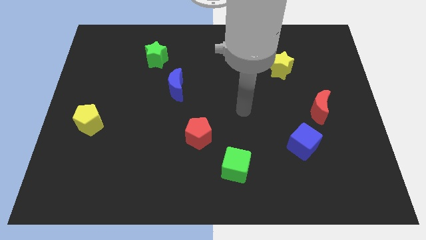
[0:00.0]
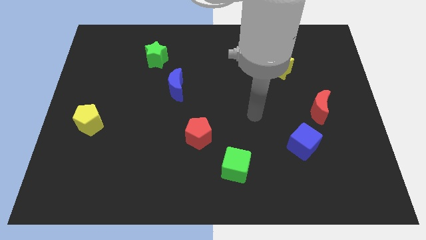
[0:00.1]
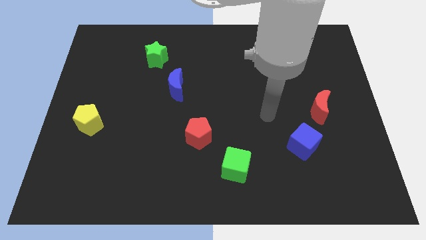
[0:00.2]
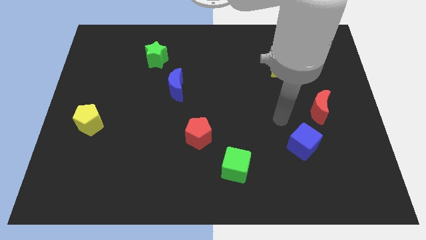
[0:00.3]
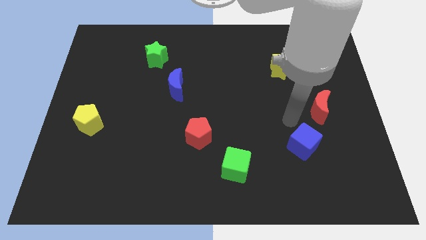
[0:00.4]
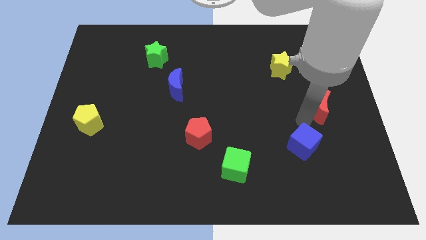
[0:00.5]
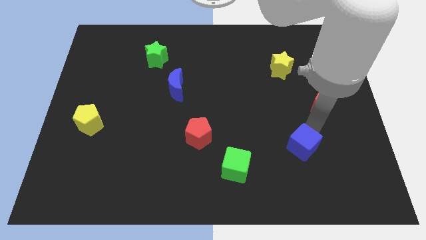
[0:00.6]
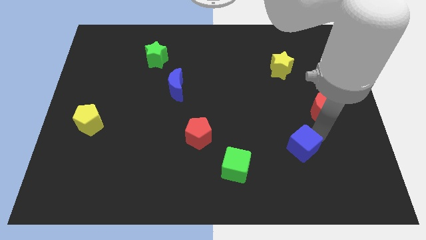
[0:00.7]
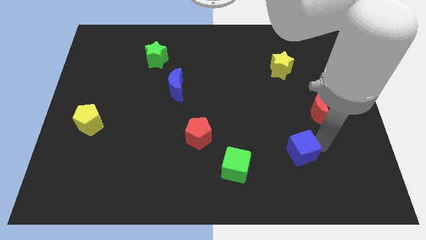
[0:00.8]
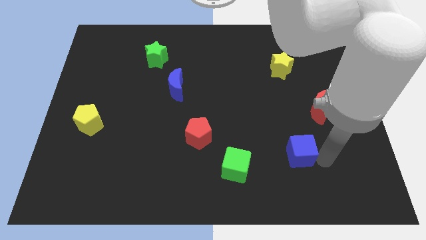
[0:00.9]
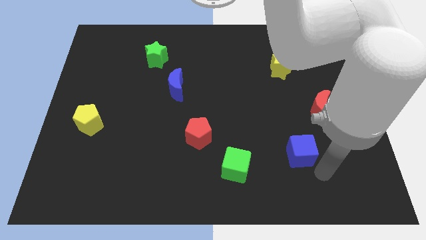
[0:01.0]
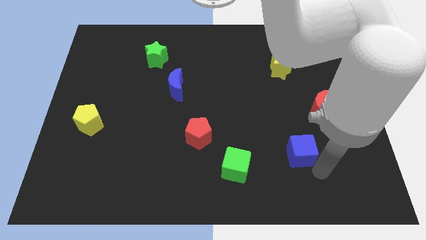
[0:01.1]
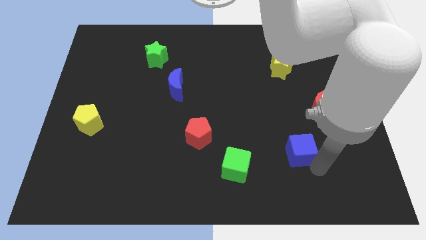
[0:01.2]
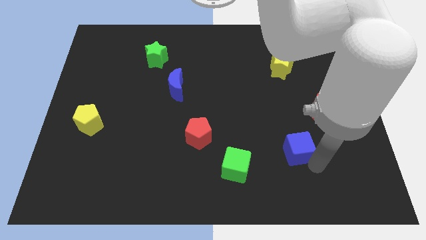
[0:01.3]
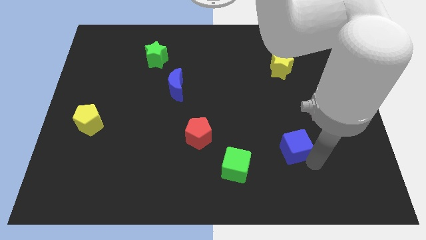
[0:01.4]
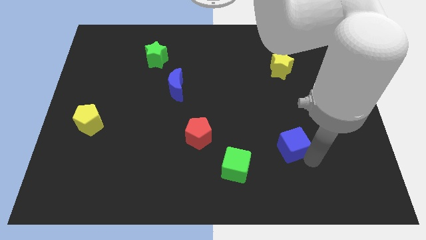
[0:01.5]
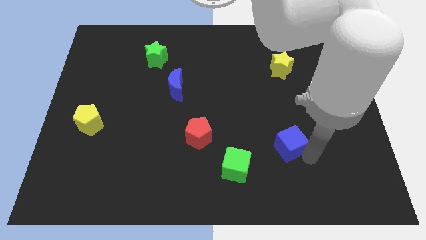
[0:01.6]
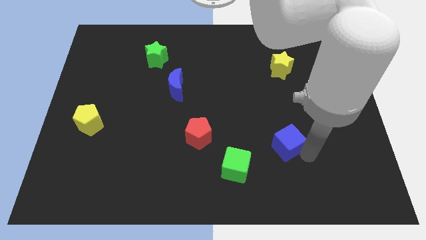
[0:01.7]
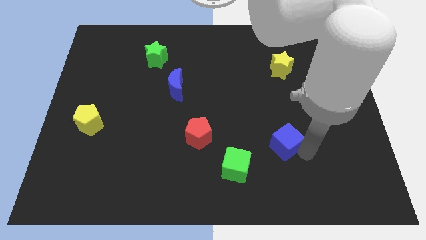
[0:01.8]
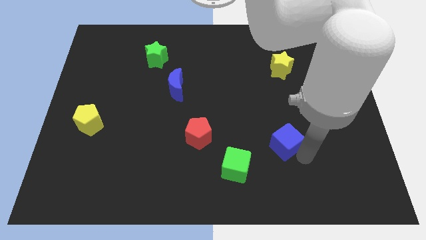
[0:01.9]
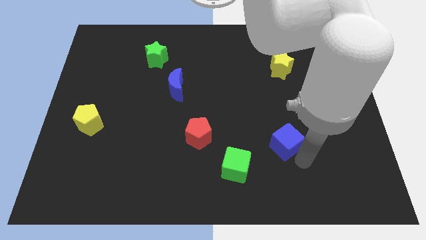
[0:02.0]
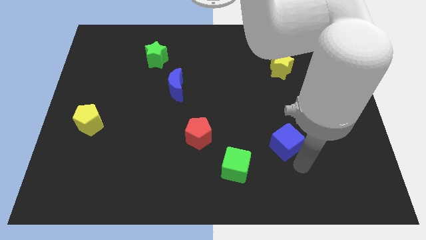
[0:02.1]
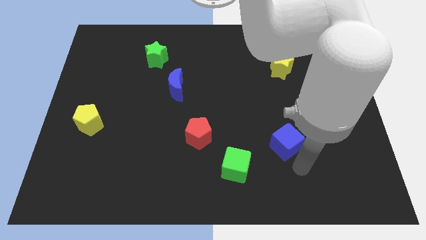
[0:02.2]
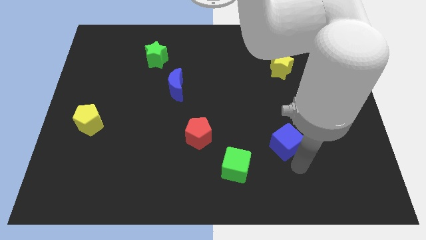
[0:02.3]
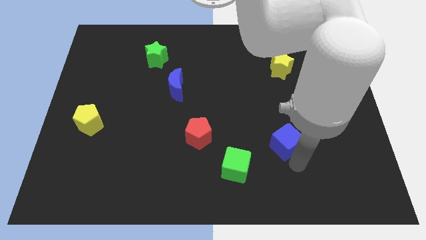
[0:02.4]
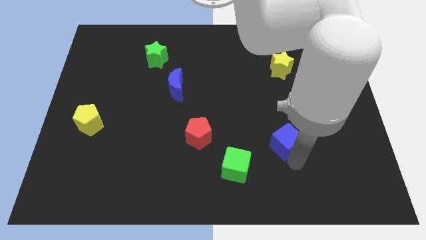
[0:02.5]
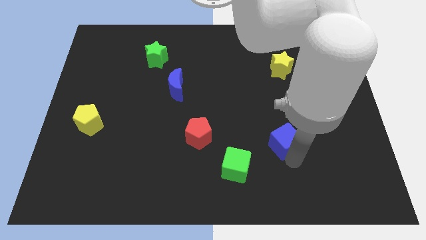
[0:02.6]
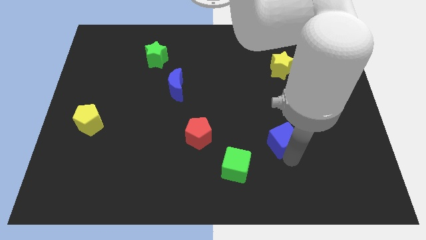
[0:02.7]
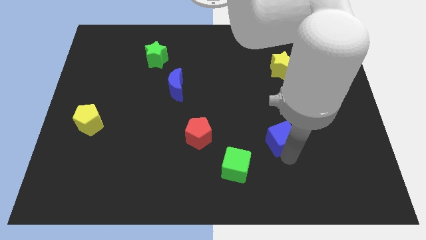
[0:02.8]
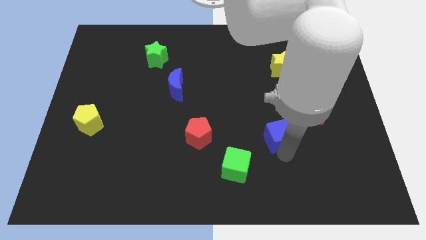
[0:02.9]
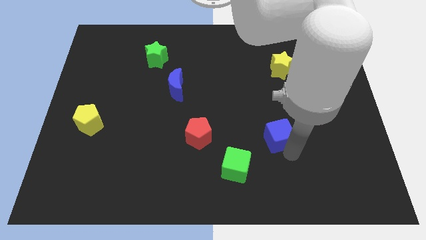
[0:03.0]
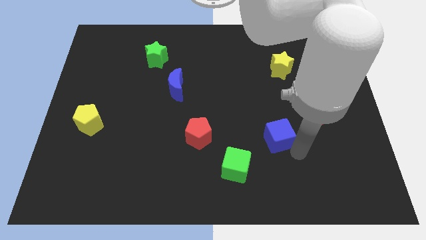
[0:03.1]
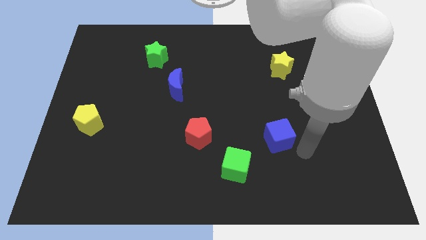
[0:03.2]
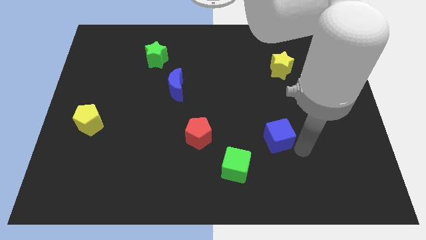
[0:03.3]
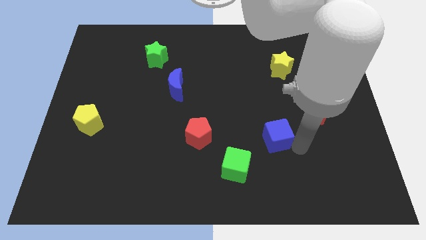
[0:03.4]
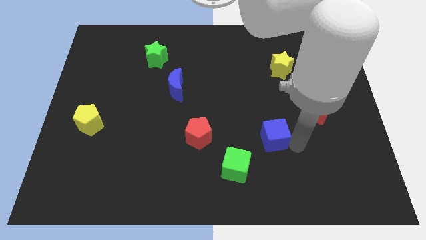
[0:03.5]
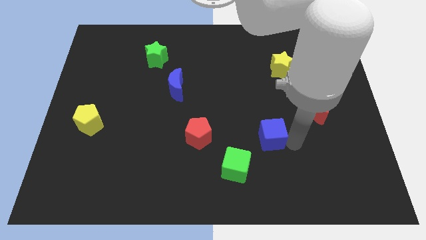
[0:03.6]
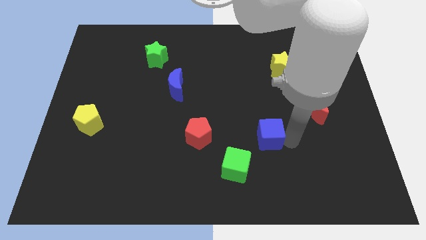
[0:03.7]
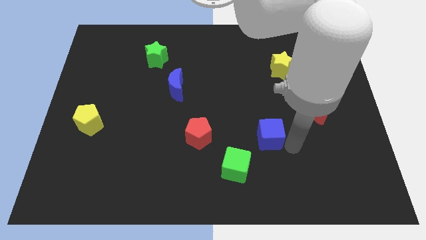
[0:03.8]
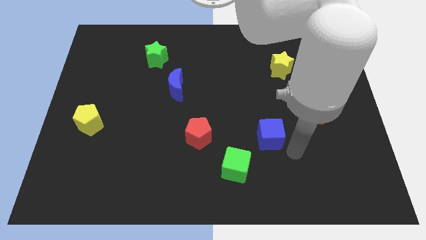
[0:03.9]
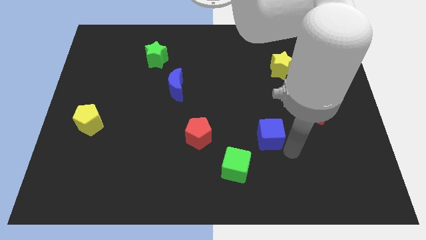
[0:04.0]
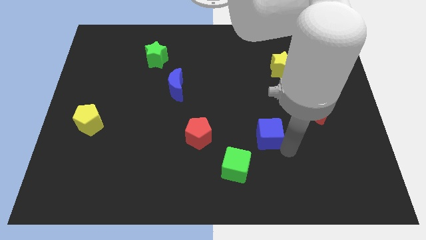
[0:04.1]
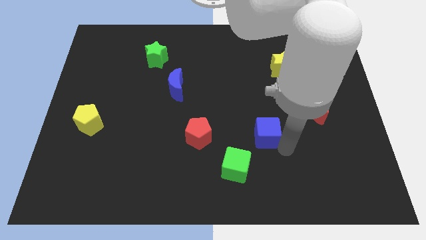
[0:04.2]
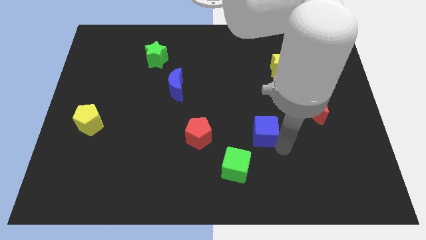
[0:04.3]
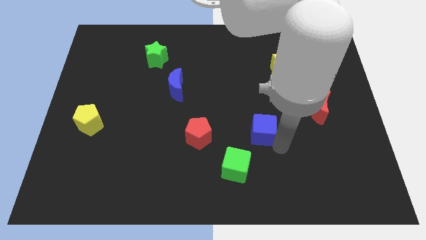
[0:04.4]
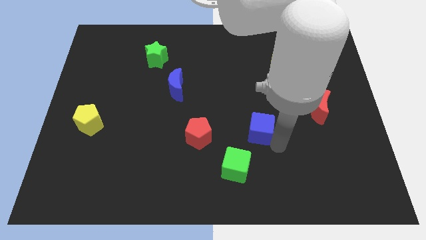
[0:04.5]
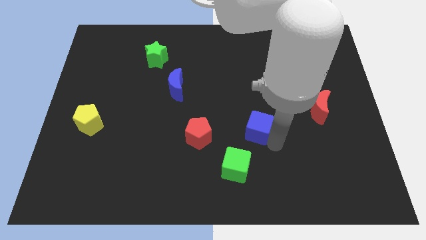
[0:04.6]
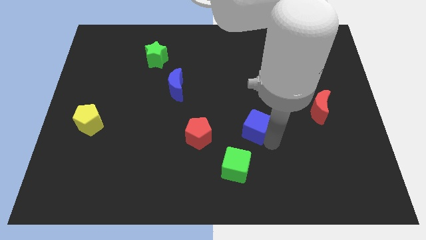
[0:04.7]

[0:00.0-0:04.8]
put the blue cube to the middle

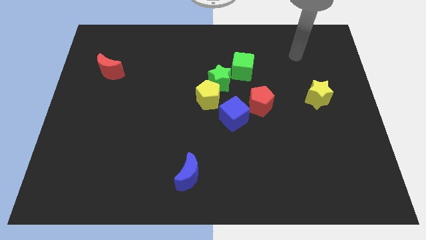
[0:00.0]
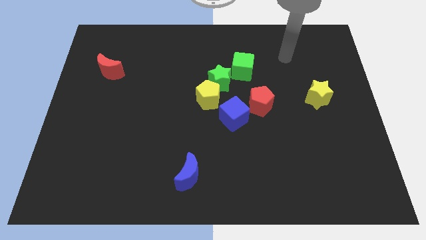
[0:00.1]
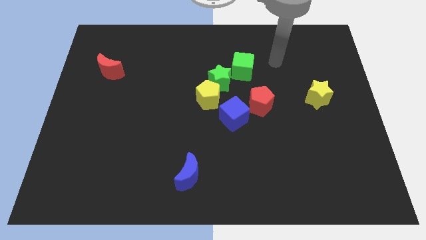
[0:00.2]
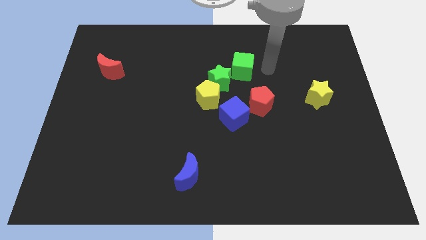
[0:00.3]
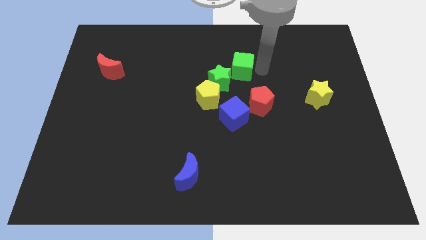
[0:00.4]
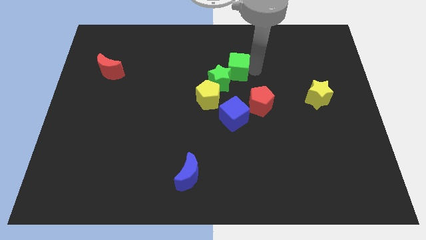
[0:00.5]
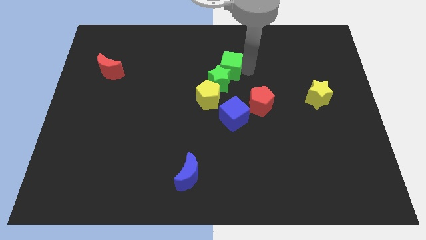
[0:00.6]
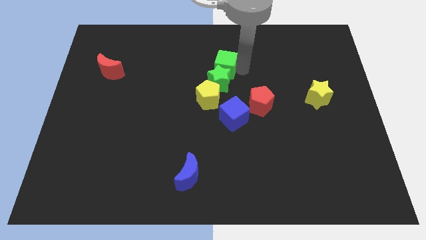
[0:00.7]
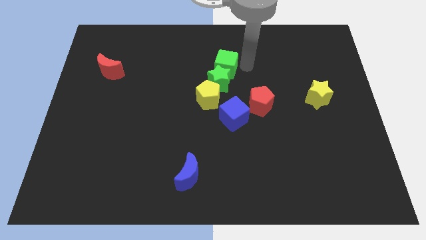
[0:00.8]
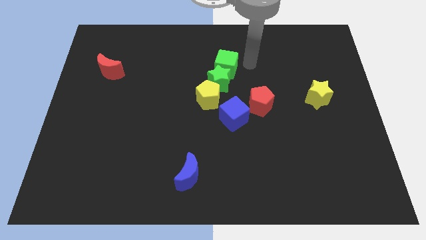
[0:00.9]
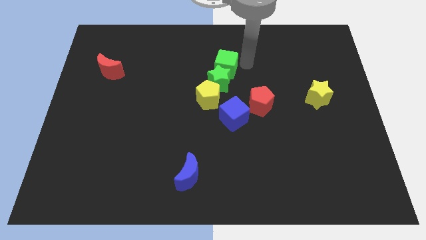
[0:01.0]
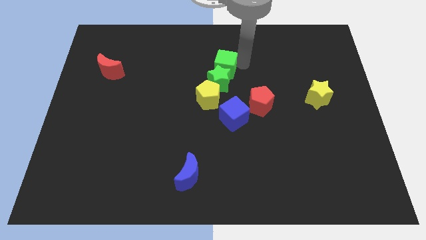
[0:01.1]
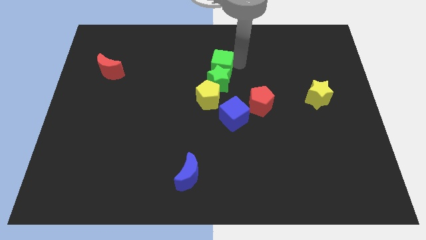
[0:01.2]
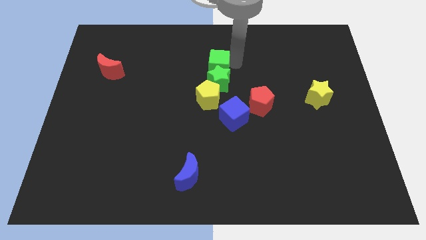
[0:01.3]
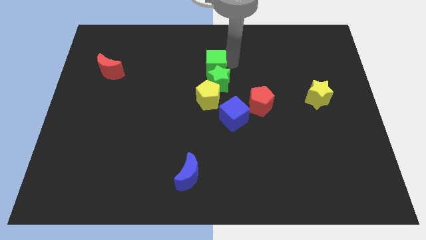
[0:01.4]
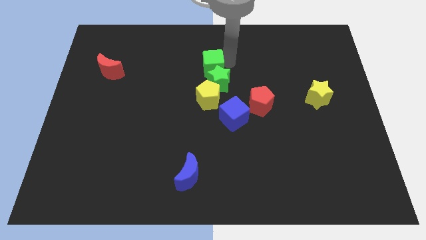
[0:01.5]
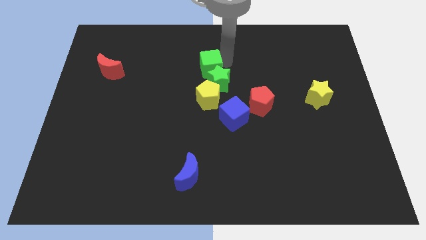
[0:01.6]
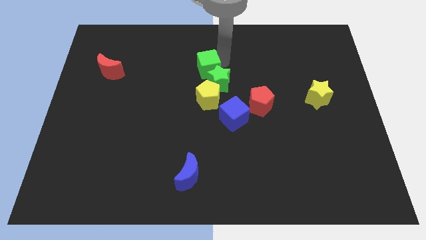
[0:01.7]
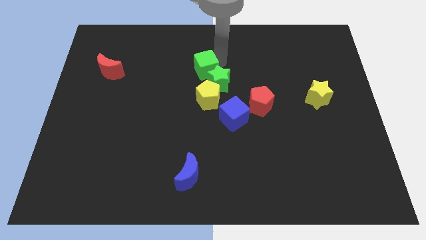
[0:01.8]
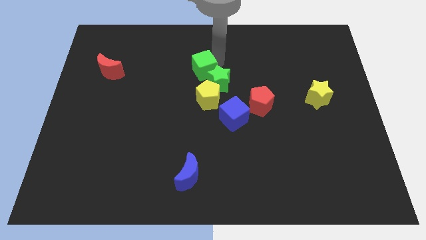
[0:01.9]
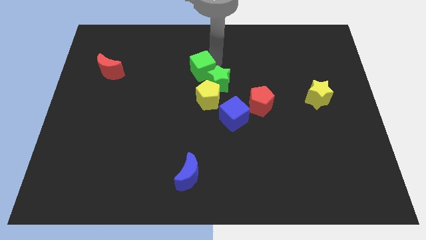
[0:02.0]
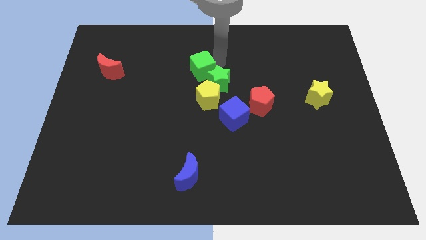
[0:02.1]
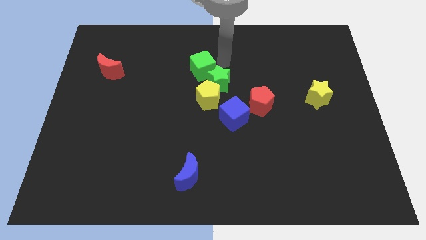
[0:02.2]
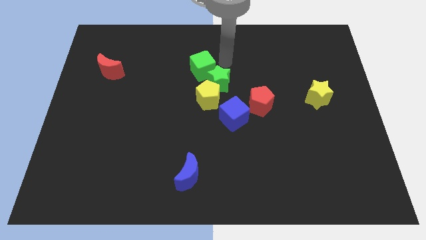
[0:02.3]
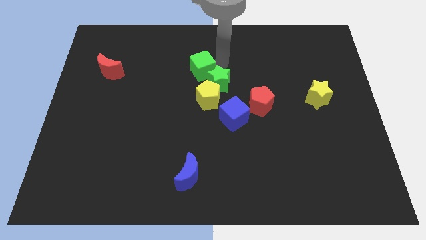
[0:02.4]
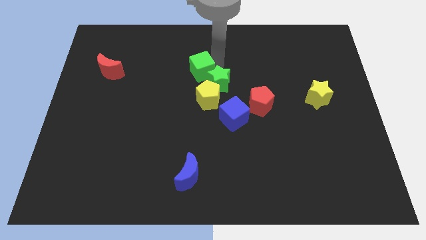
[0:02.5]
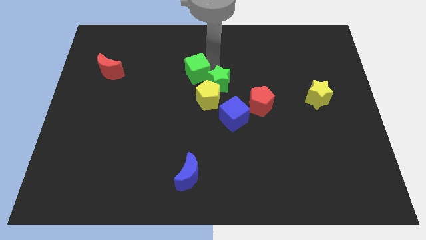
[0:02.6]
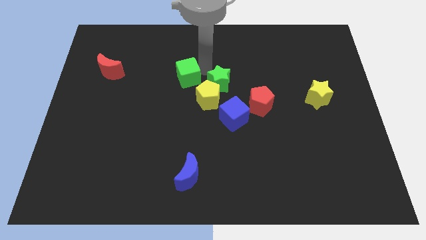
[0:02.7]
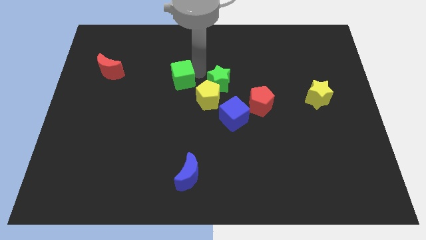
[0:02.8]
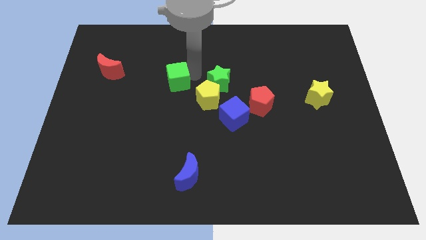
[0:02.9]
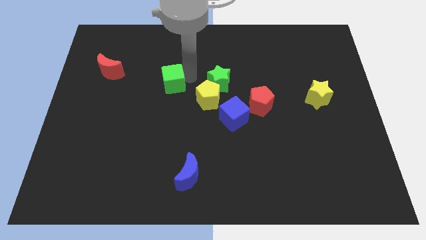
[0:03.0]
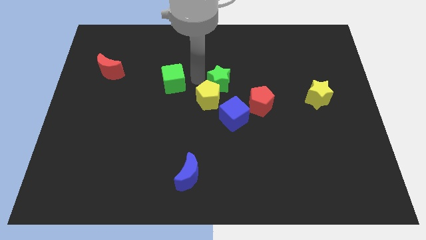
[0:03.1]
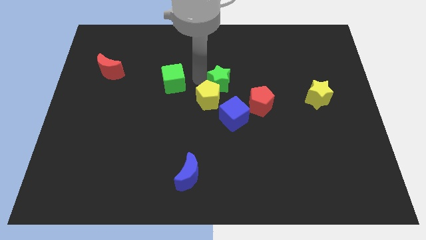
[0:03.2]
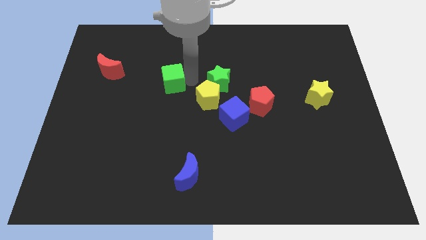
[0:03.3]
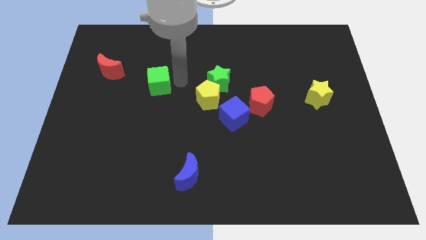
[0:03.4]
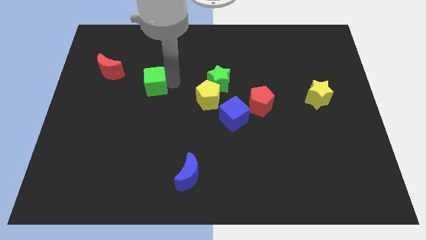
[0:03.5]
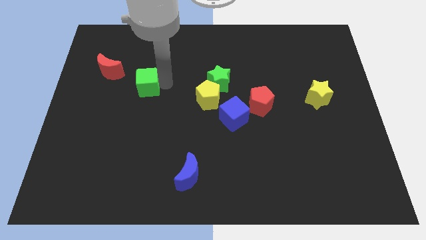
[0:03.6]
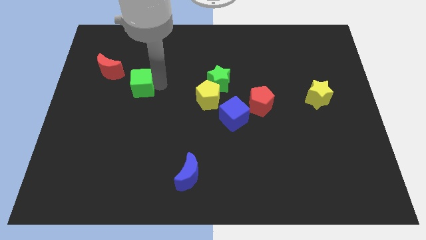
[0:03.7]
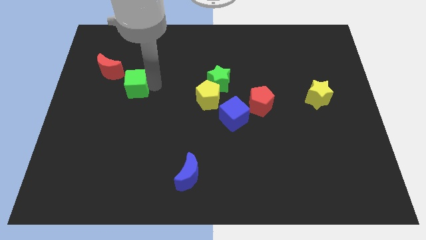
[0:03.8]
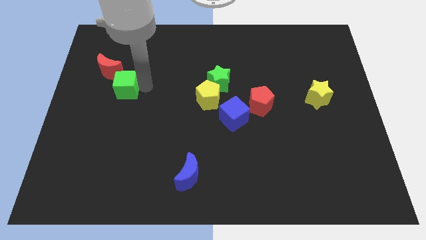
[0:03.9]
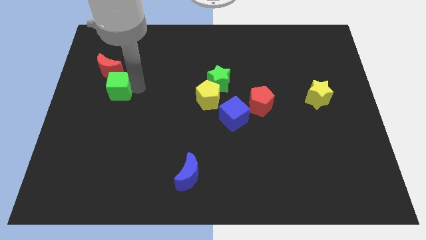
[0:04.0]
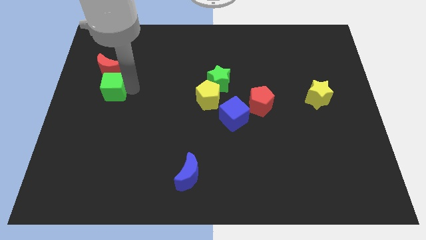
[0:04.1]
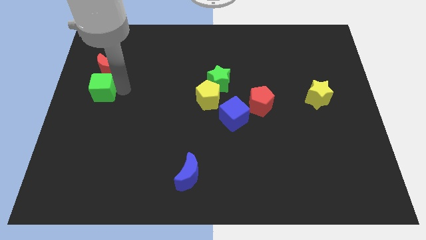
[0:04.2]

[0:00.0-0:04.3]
slide the green cube to the left side of the board
